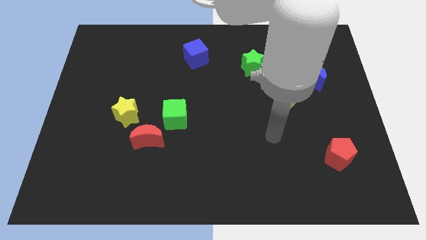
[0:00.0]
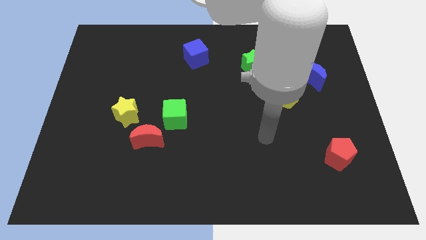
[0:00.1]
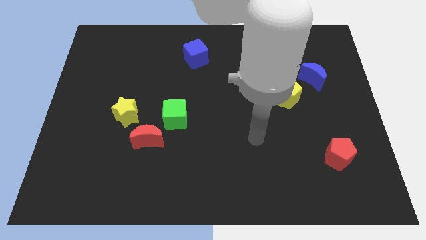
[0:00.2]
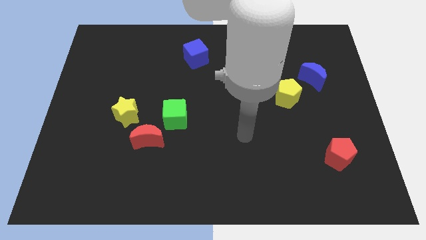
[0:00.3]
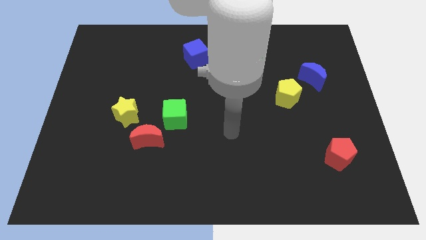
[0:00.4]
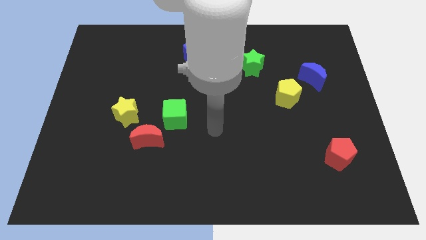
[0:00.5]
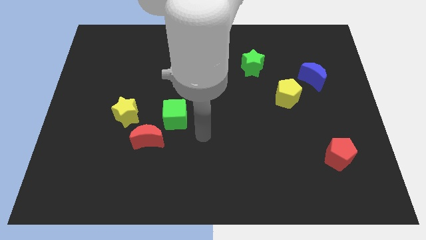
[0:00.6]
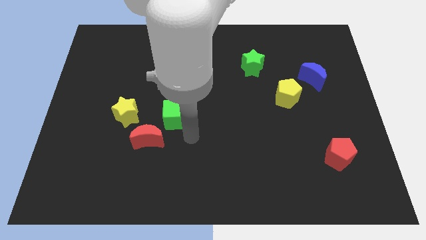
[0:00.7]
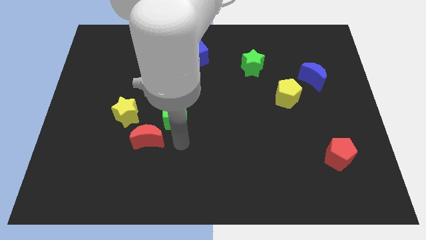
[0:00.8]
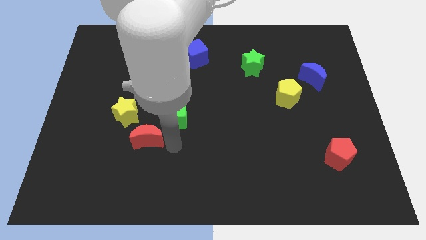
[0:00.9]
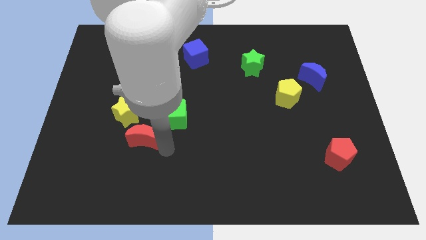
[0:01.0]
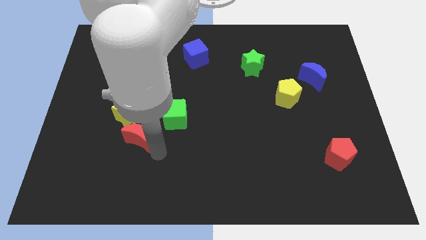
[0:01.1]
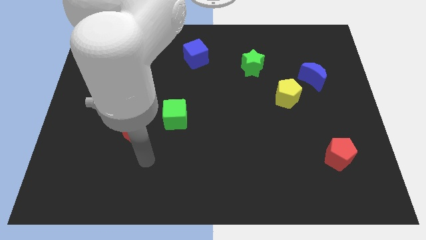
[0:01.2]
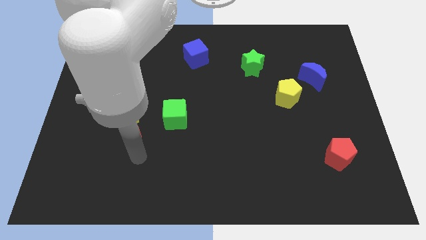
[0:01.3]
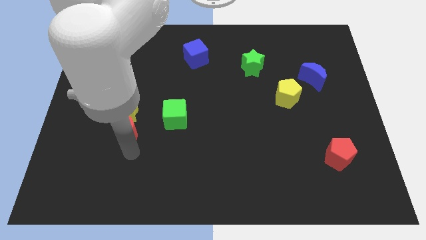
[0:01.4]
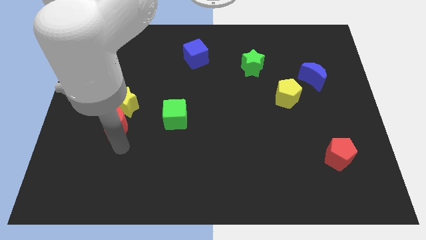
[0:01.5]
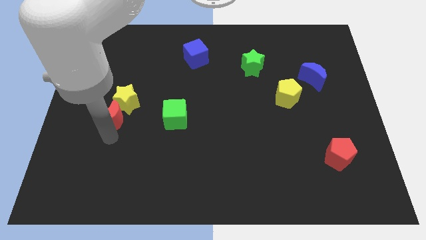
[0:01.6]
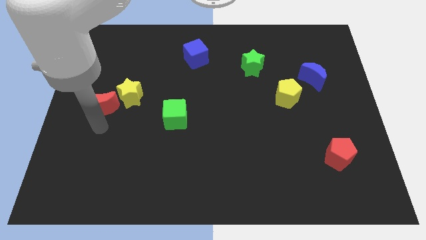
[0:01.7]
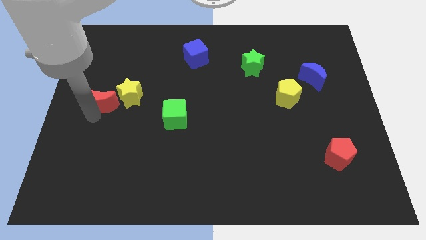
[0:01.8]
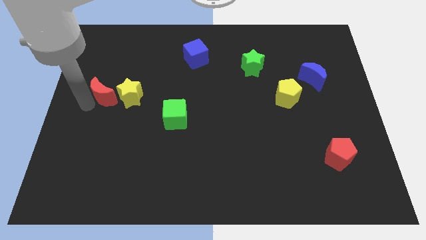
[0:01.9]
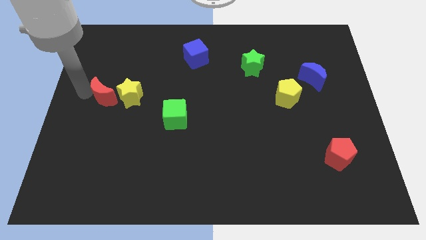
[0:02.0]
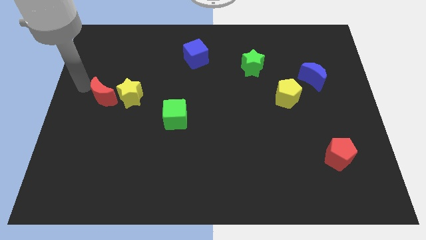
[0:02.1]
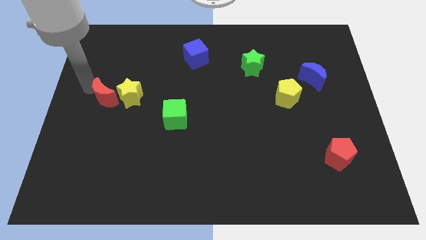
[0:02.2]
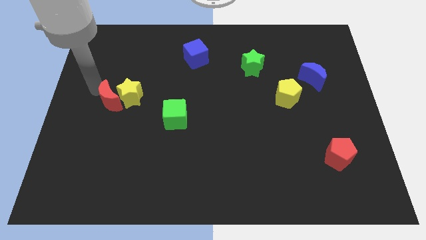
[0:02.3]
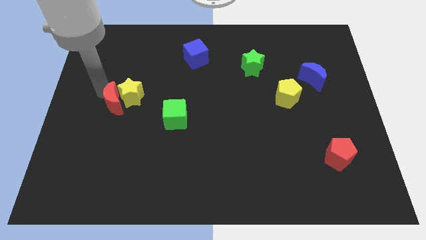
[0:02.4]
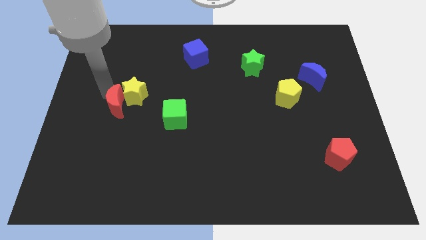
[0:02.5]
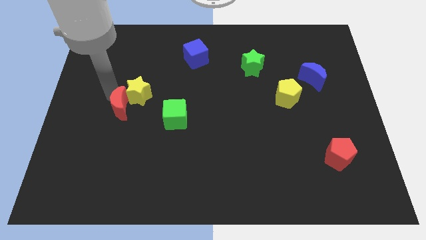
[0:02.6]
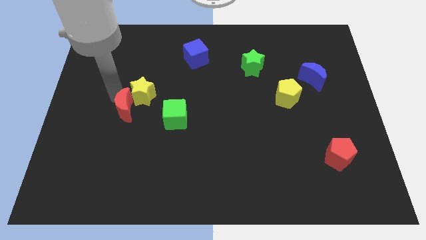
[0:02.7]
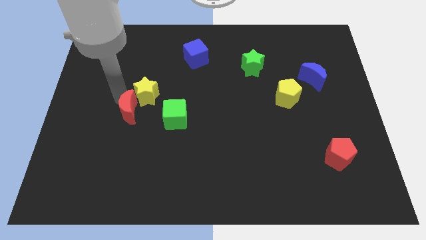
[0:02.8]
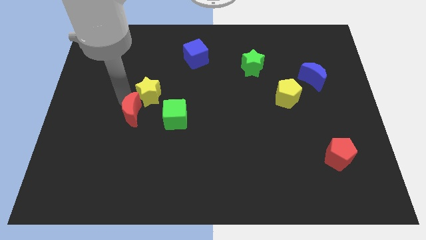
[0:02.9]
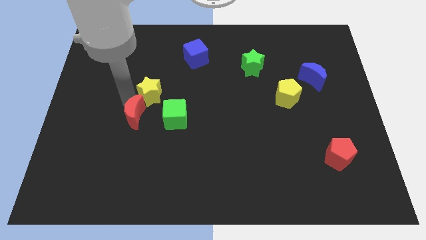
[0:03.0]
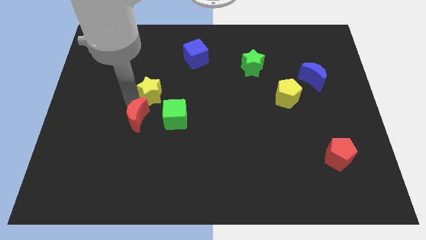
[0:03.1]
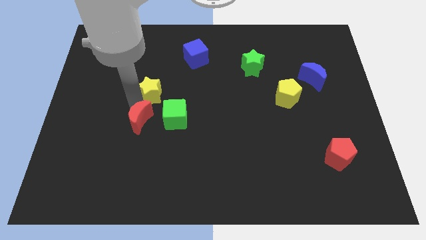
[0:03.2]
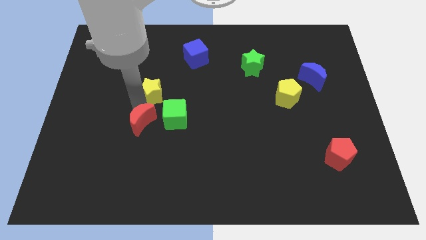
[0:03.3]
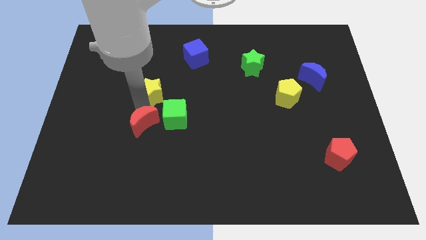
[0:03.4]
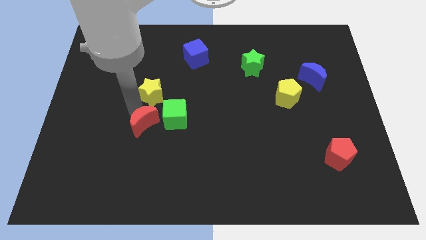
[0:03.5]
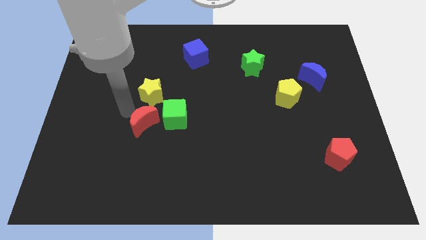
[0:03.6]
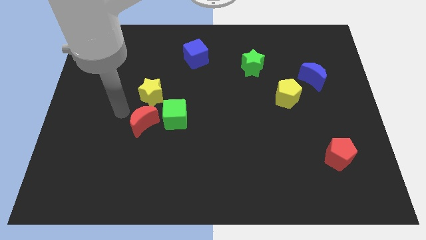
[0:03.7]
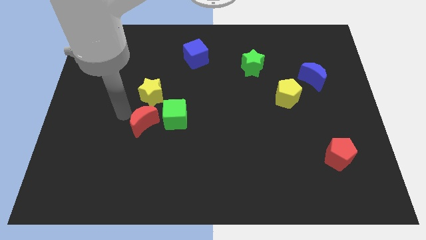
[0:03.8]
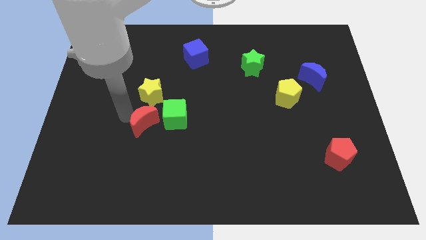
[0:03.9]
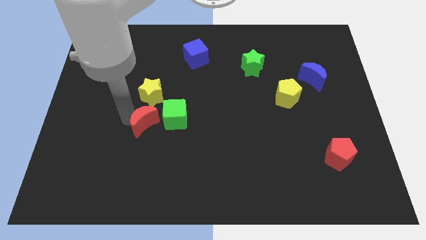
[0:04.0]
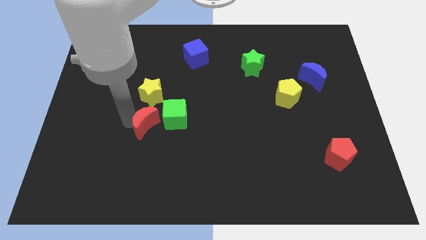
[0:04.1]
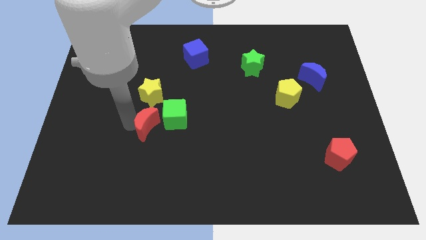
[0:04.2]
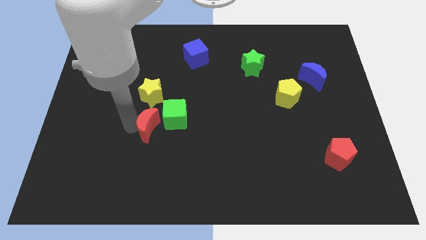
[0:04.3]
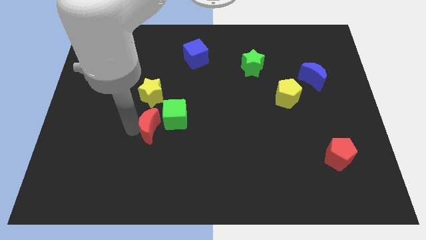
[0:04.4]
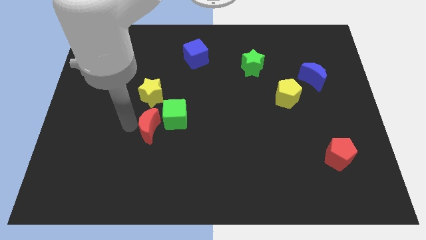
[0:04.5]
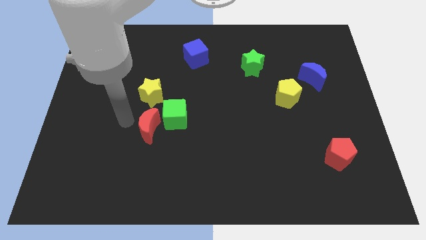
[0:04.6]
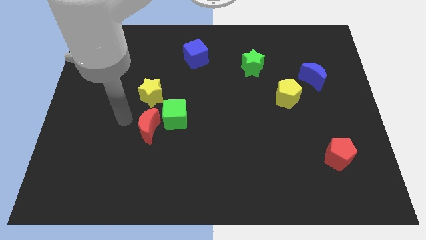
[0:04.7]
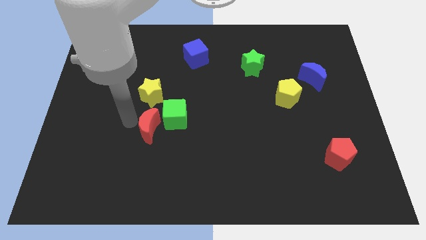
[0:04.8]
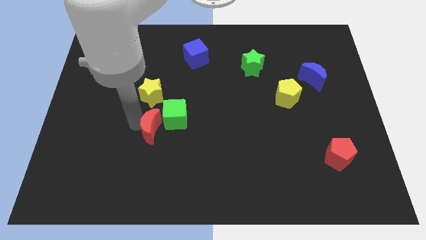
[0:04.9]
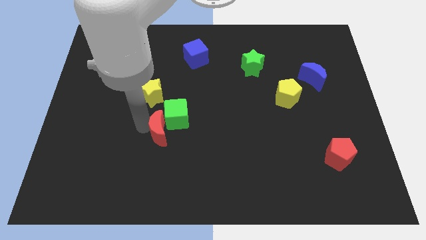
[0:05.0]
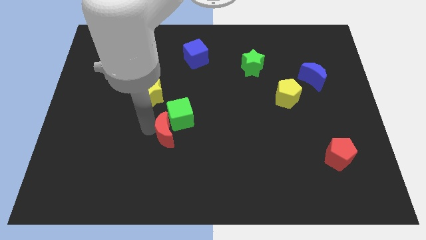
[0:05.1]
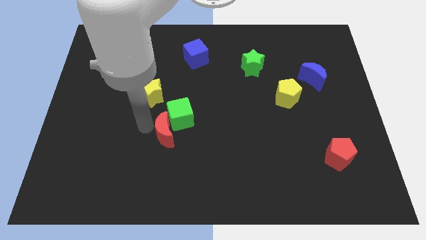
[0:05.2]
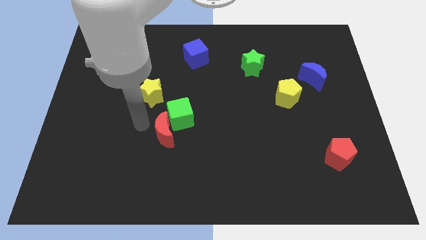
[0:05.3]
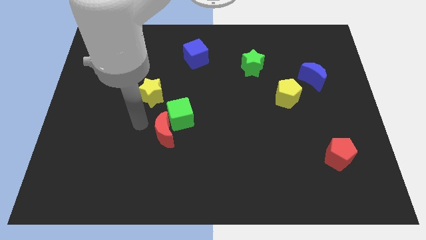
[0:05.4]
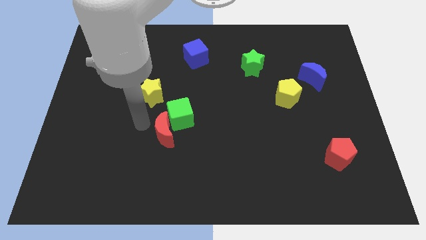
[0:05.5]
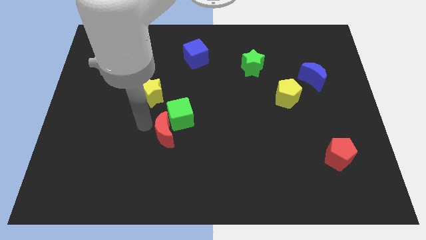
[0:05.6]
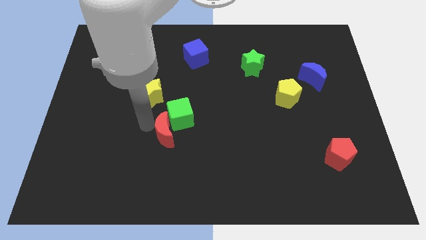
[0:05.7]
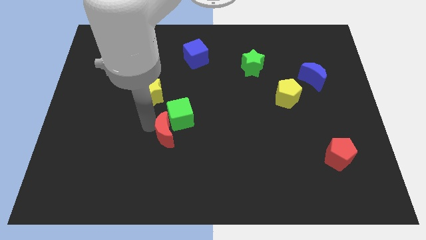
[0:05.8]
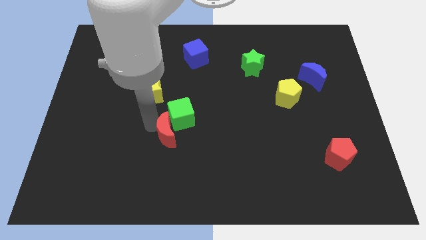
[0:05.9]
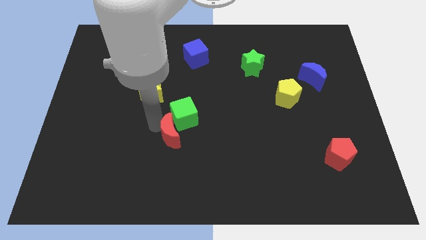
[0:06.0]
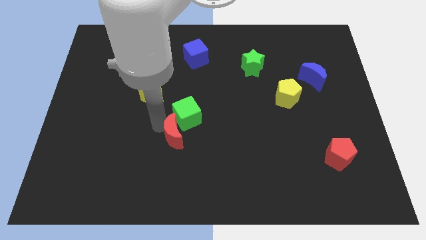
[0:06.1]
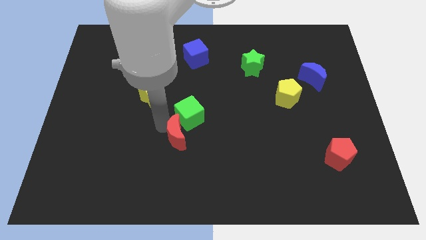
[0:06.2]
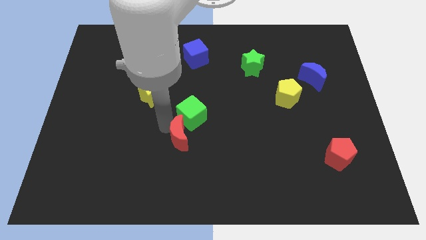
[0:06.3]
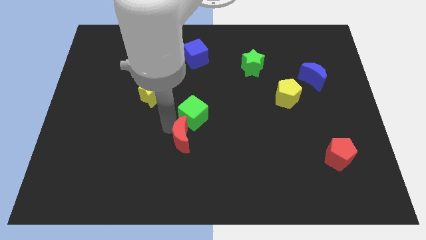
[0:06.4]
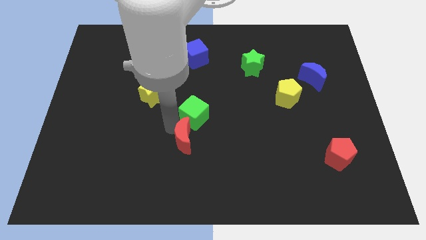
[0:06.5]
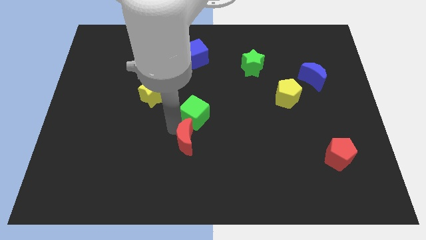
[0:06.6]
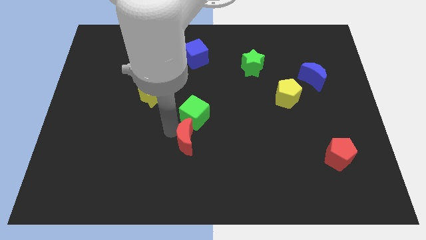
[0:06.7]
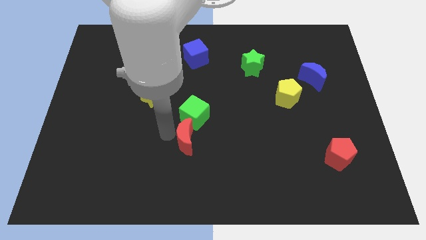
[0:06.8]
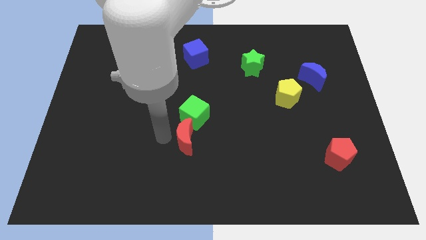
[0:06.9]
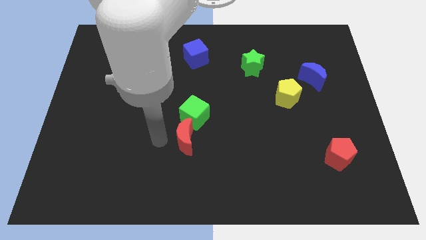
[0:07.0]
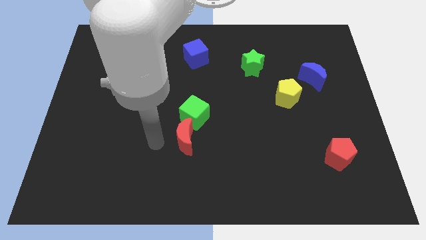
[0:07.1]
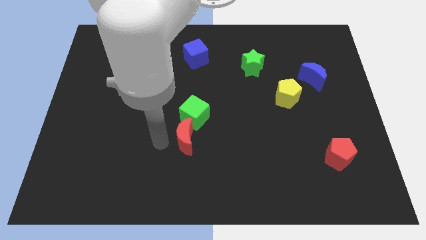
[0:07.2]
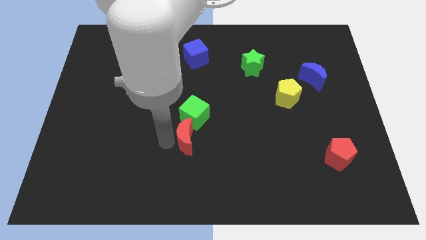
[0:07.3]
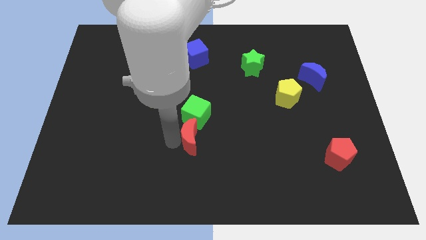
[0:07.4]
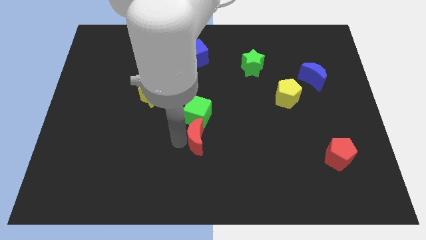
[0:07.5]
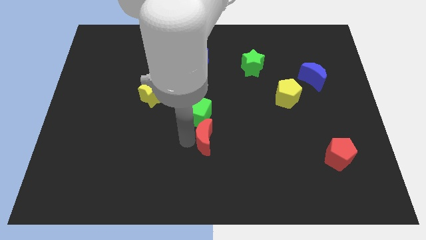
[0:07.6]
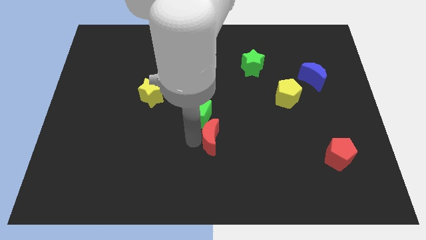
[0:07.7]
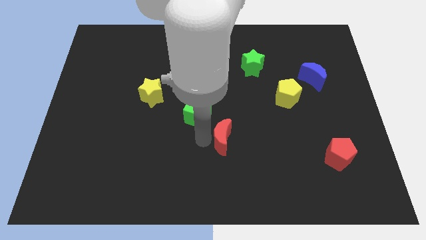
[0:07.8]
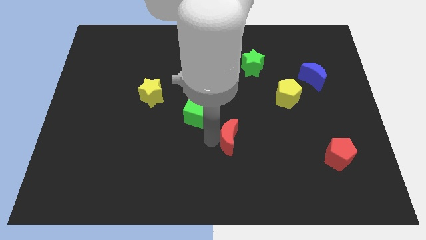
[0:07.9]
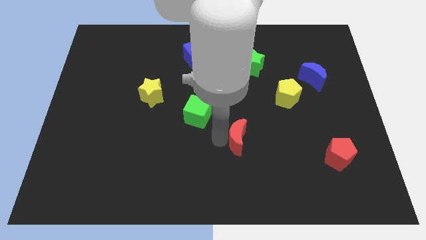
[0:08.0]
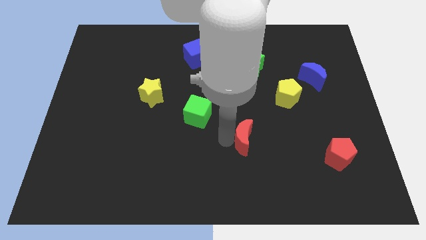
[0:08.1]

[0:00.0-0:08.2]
push the red moon right
